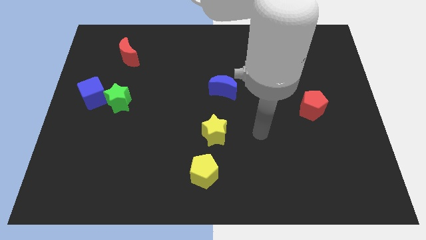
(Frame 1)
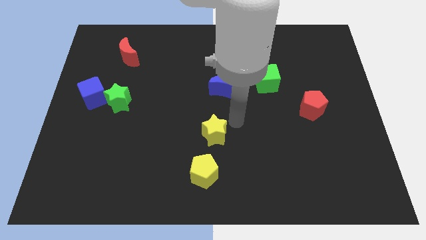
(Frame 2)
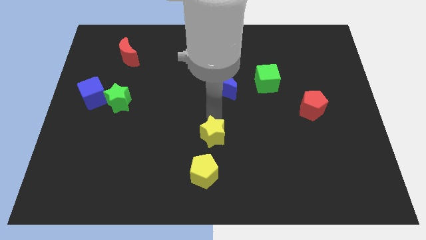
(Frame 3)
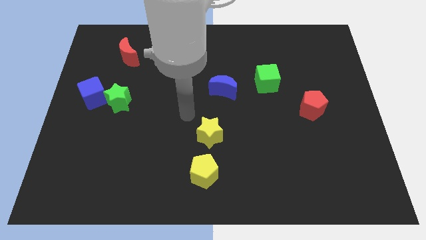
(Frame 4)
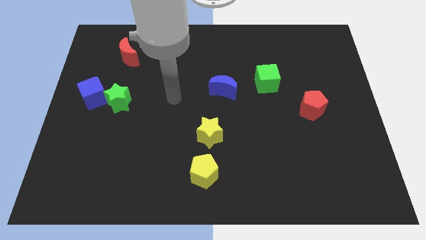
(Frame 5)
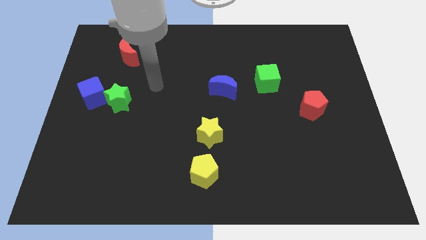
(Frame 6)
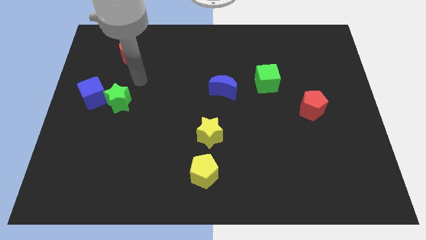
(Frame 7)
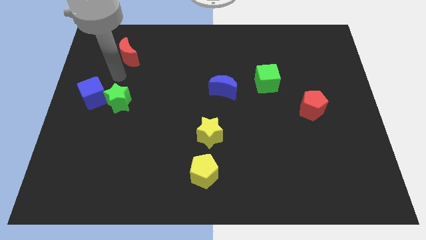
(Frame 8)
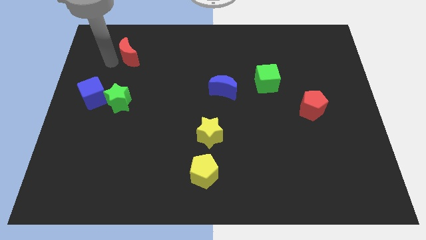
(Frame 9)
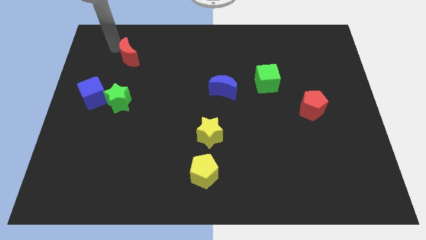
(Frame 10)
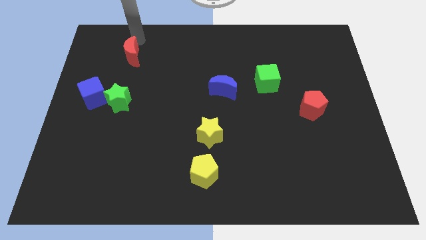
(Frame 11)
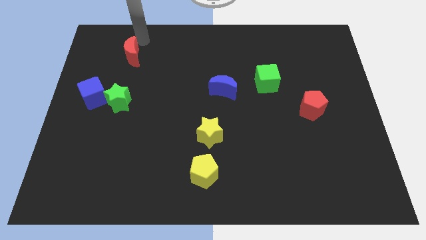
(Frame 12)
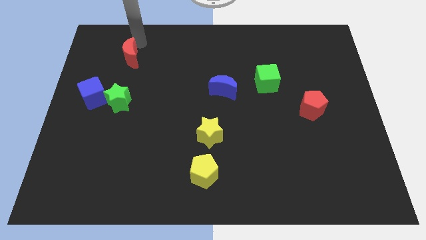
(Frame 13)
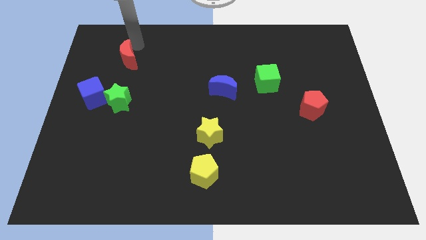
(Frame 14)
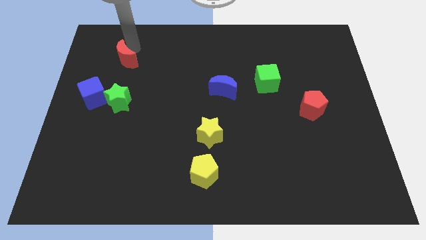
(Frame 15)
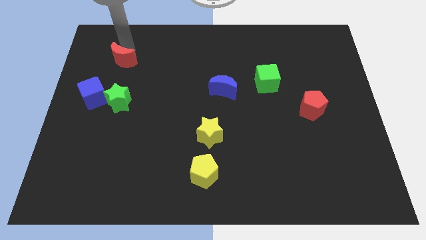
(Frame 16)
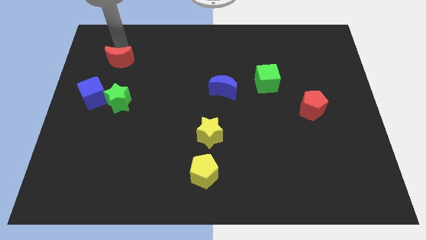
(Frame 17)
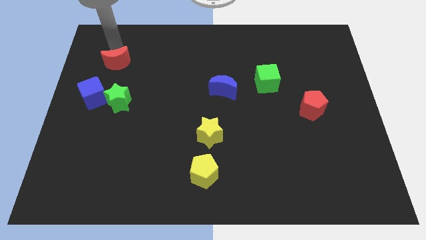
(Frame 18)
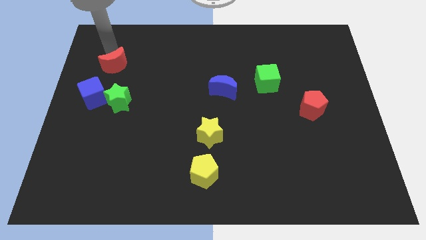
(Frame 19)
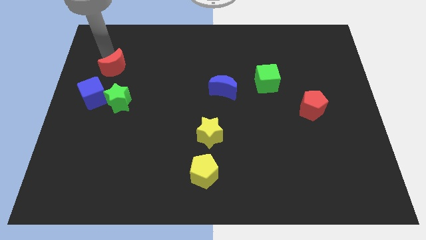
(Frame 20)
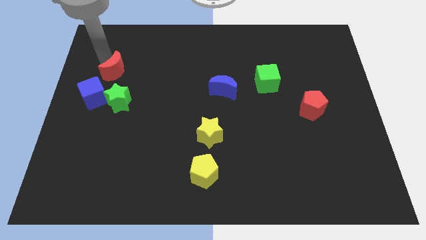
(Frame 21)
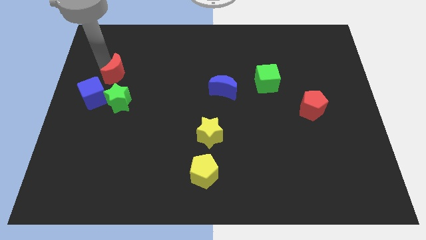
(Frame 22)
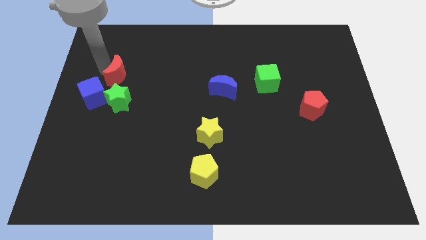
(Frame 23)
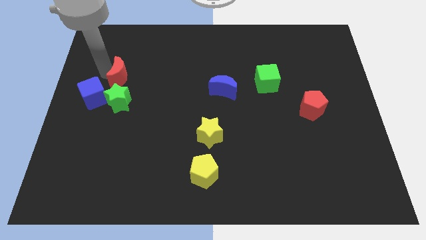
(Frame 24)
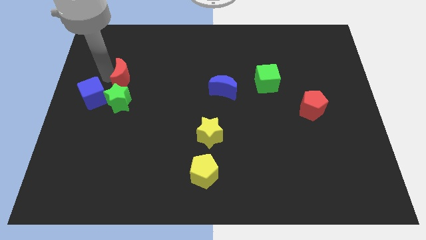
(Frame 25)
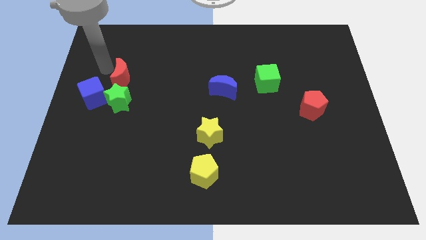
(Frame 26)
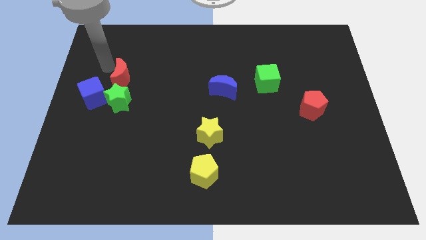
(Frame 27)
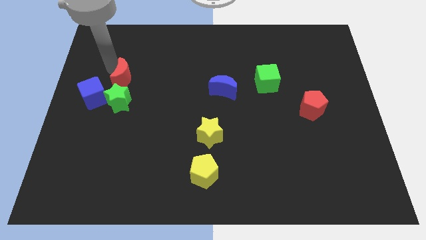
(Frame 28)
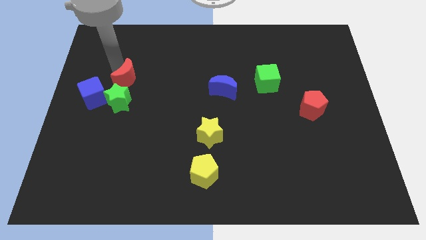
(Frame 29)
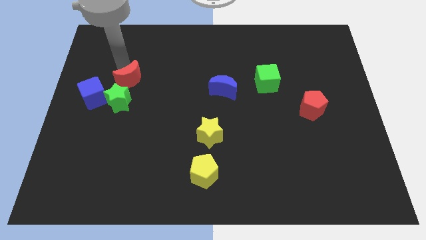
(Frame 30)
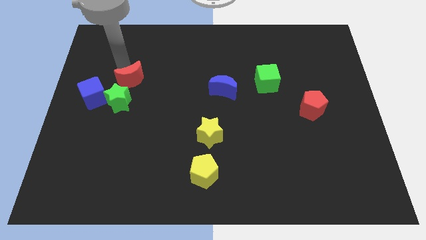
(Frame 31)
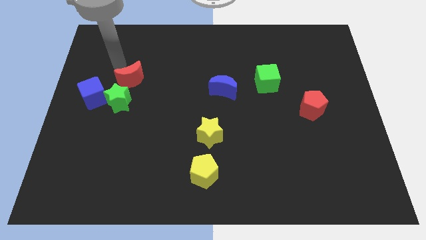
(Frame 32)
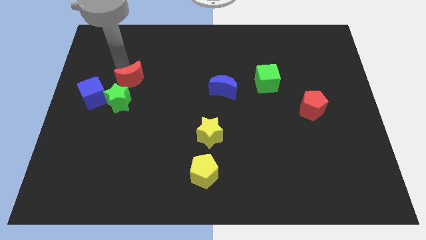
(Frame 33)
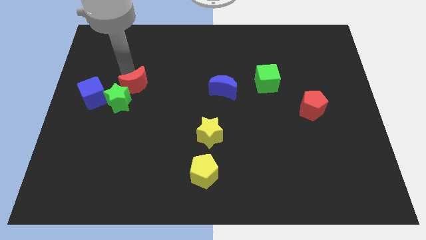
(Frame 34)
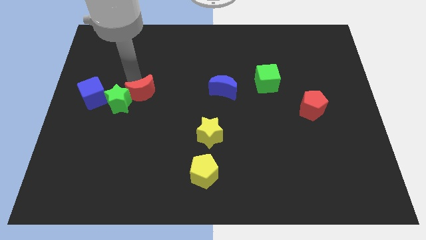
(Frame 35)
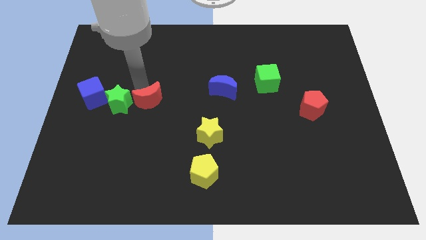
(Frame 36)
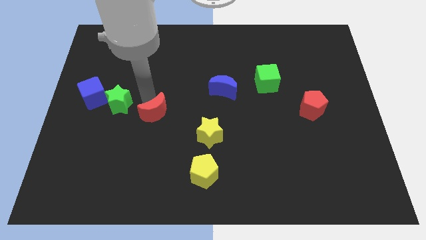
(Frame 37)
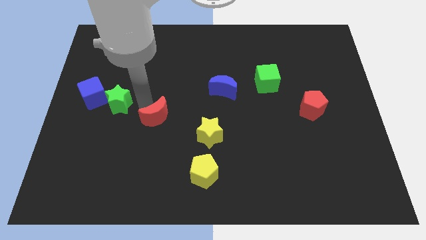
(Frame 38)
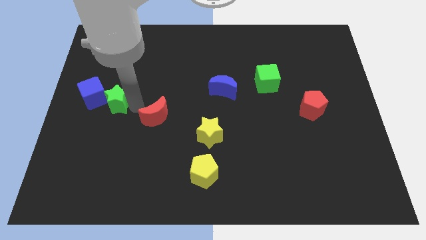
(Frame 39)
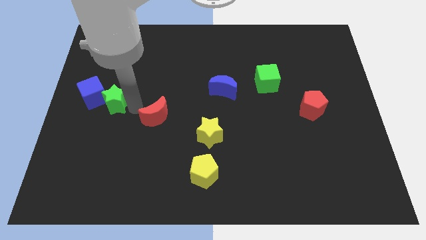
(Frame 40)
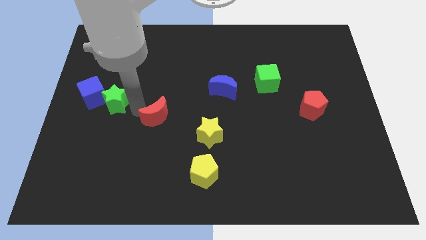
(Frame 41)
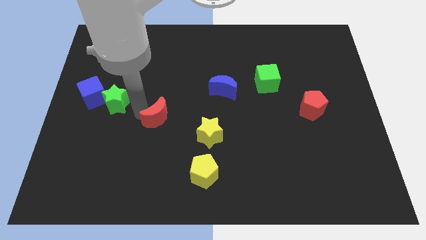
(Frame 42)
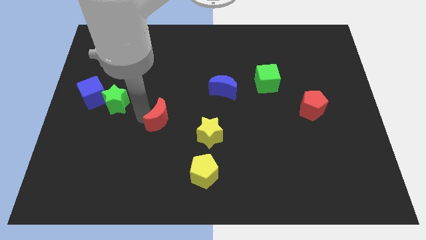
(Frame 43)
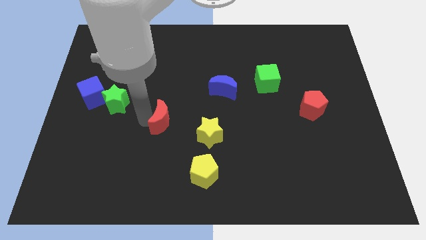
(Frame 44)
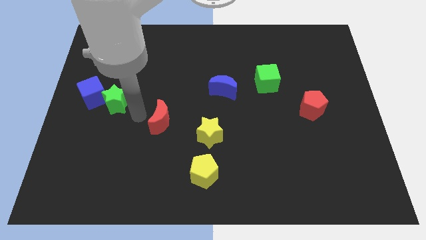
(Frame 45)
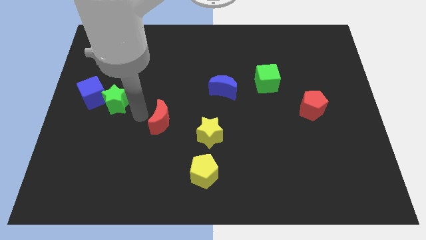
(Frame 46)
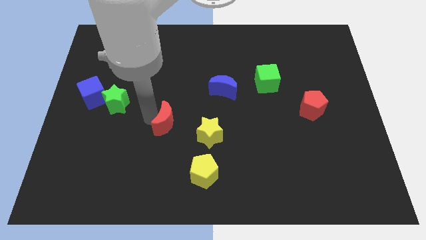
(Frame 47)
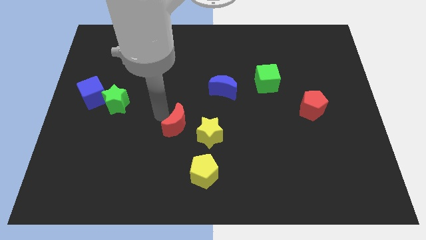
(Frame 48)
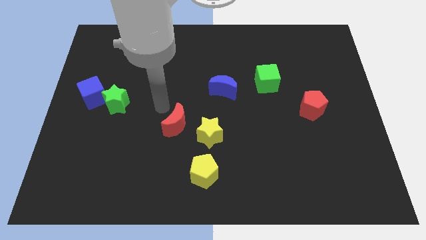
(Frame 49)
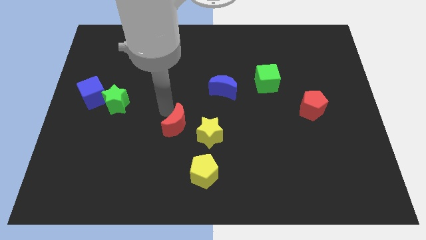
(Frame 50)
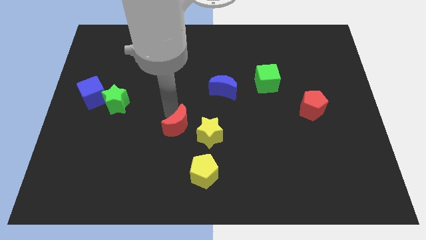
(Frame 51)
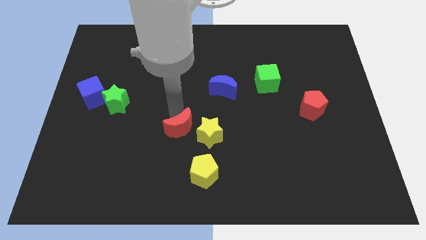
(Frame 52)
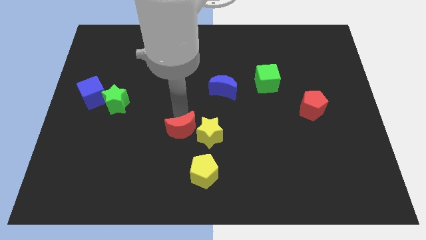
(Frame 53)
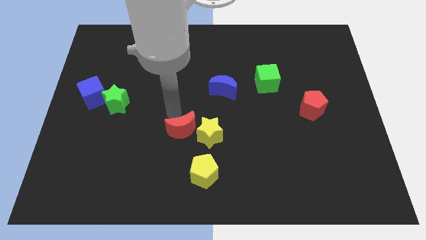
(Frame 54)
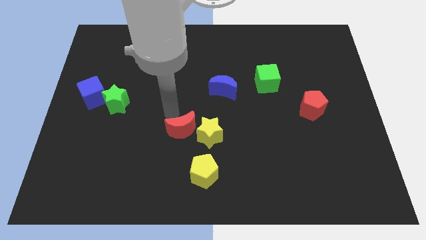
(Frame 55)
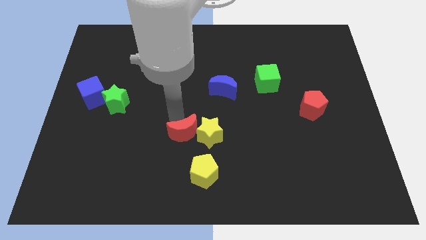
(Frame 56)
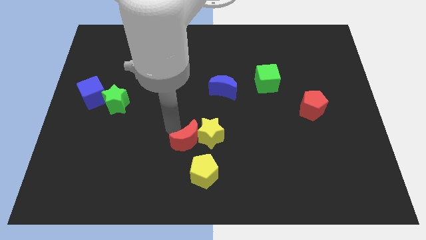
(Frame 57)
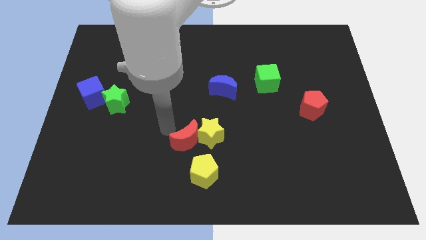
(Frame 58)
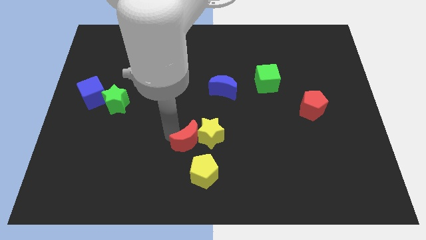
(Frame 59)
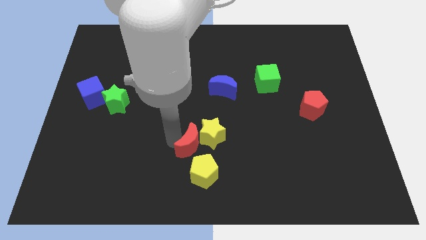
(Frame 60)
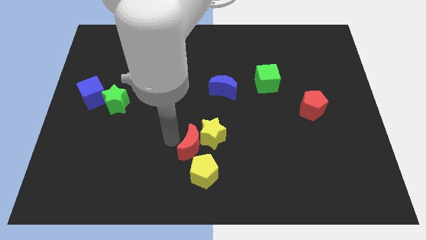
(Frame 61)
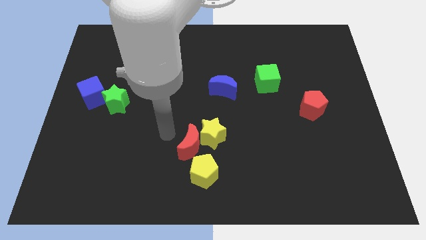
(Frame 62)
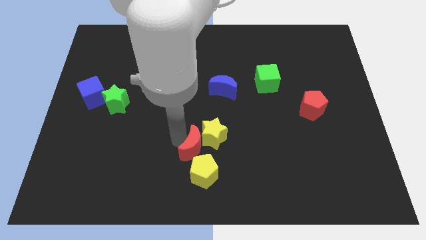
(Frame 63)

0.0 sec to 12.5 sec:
slide the red moon below the yellow star
